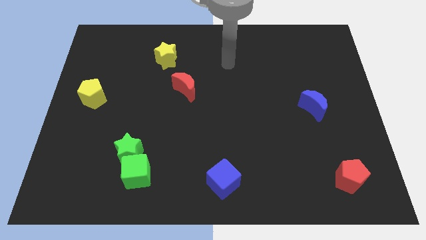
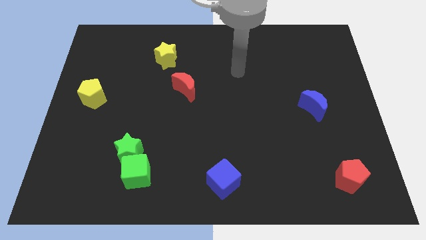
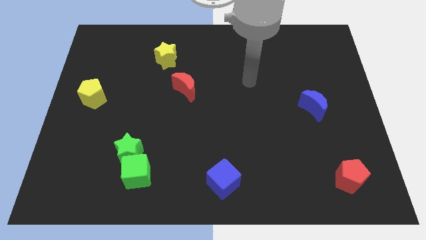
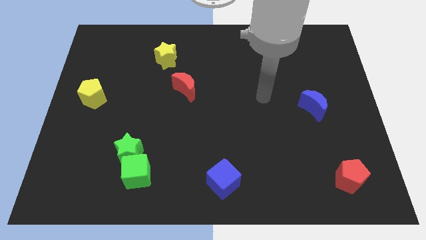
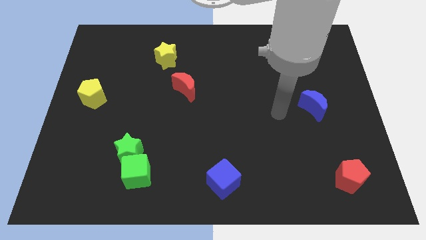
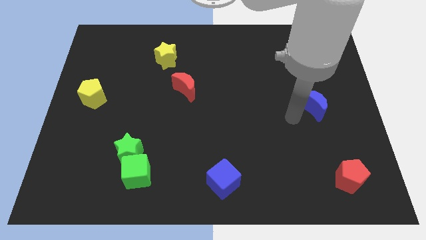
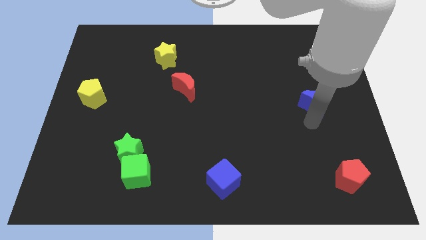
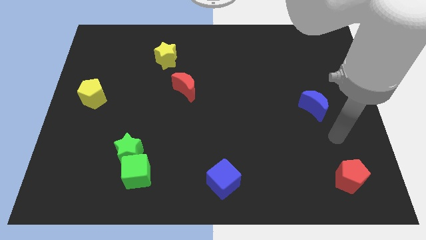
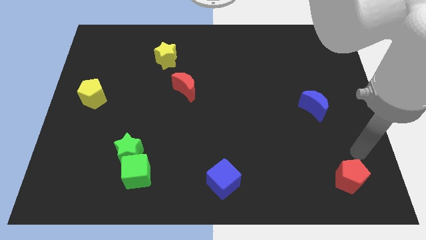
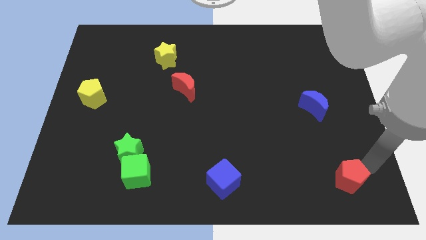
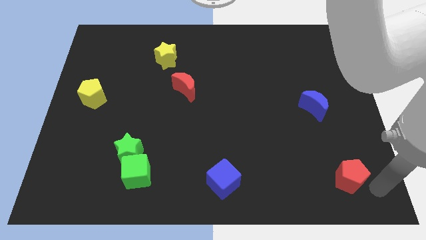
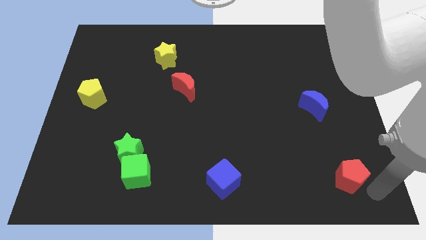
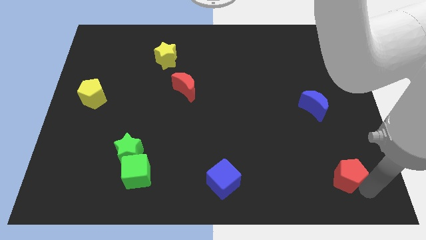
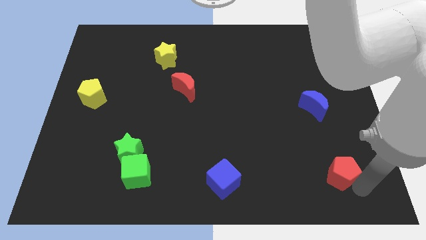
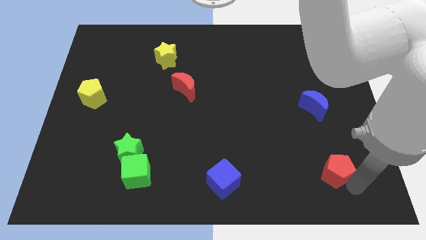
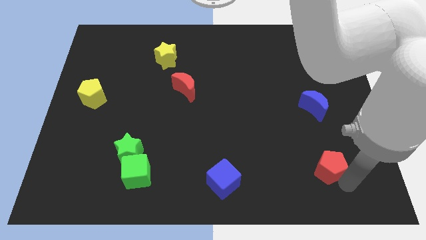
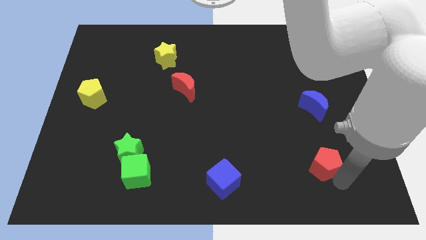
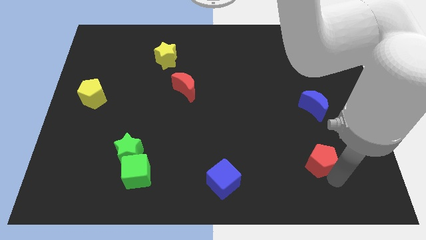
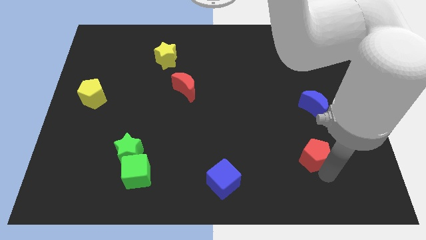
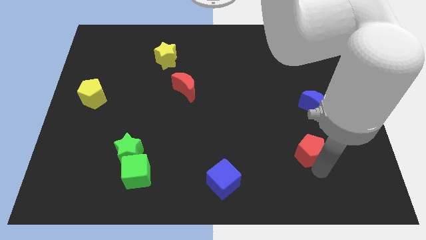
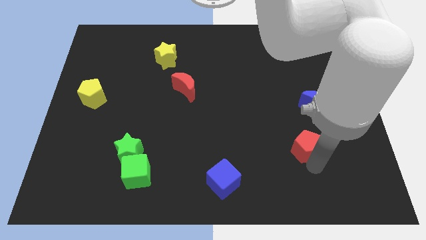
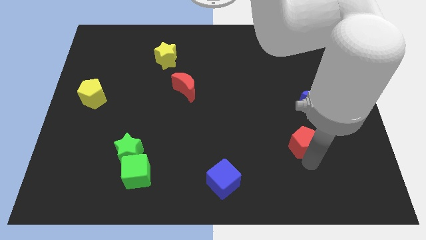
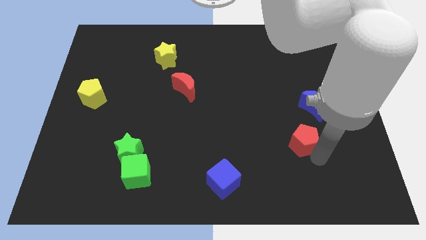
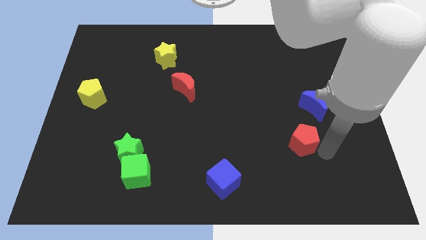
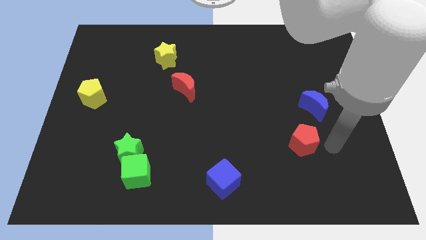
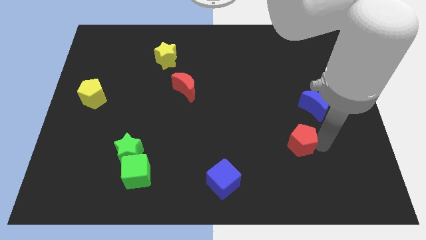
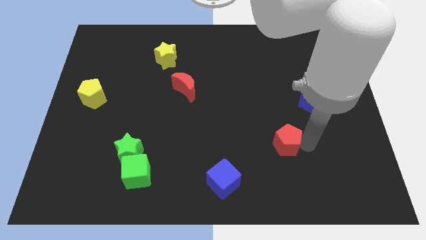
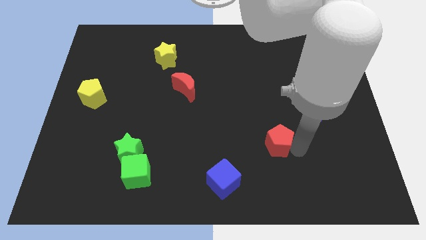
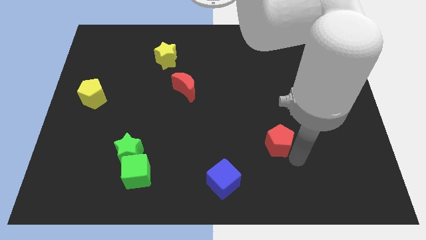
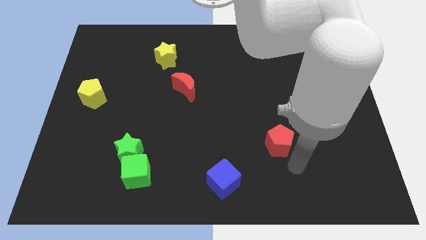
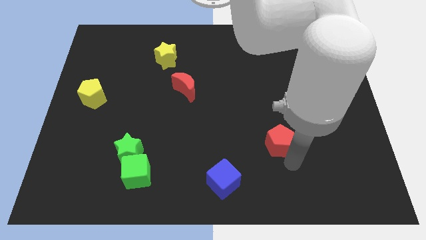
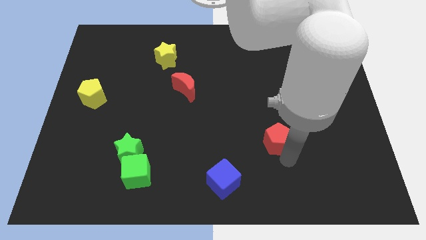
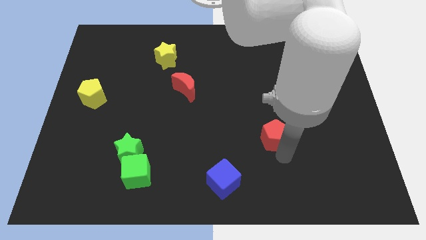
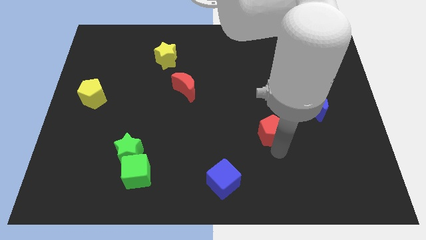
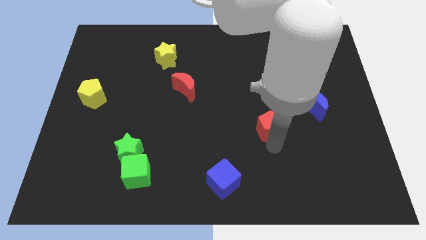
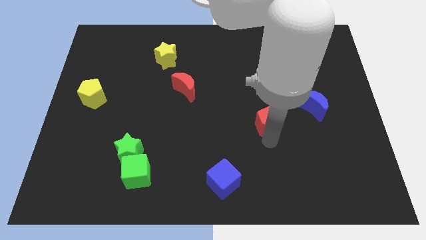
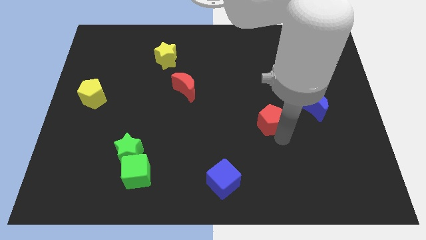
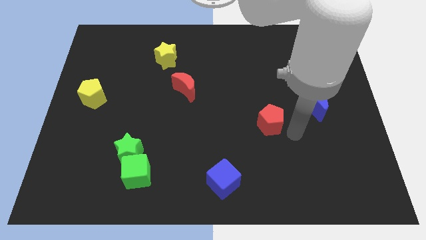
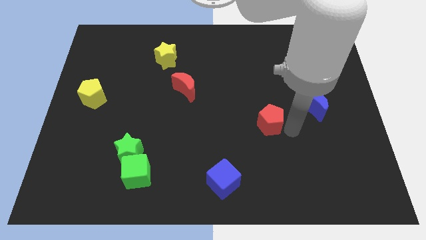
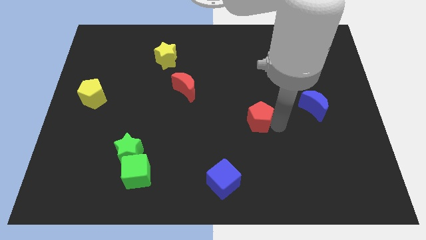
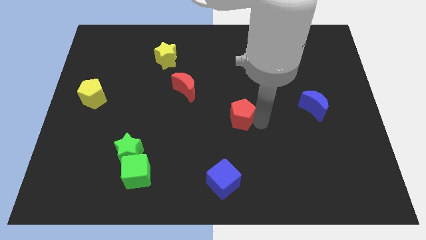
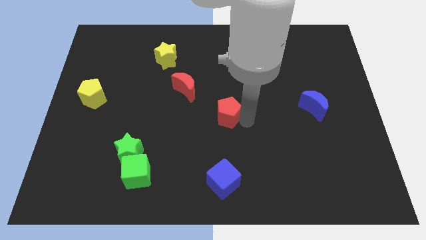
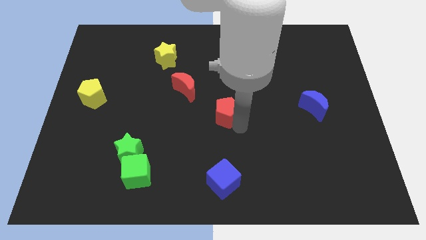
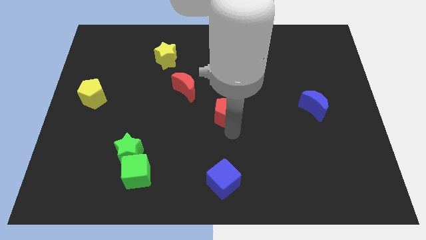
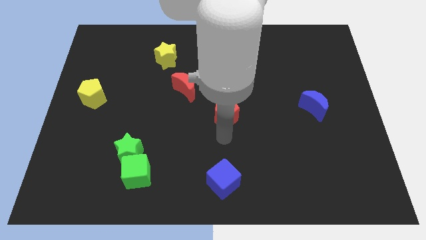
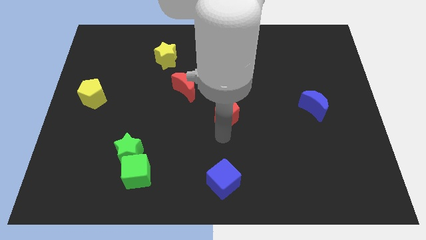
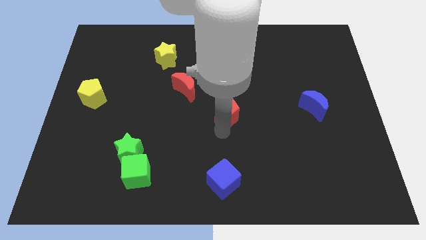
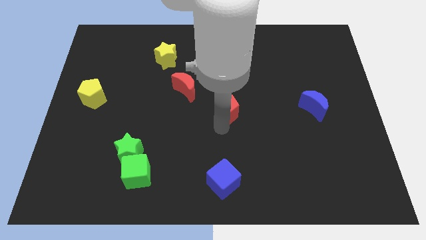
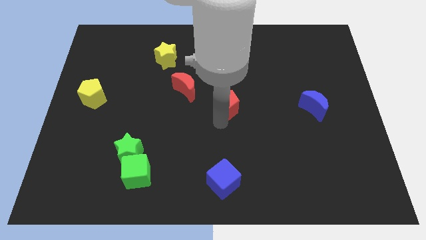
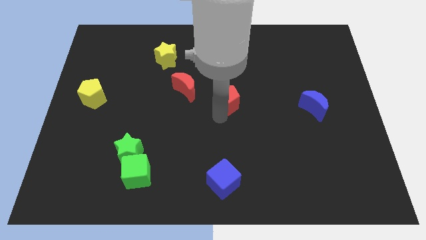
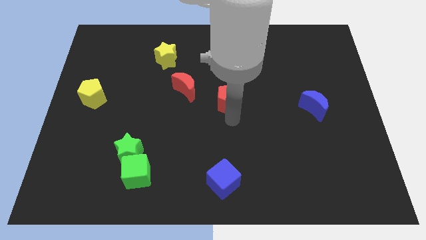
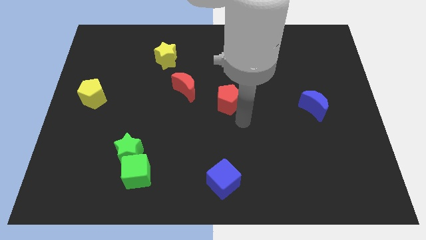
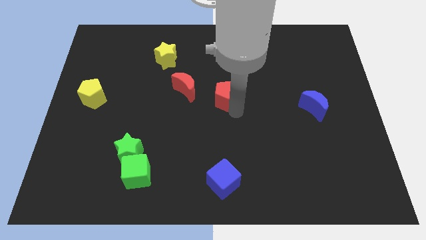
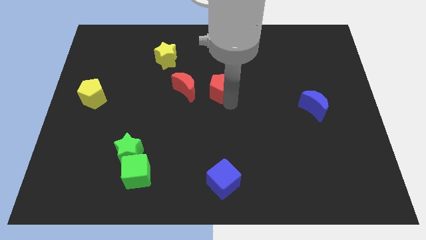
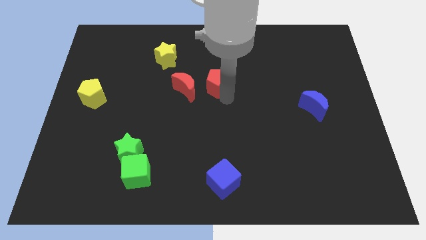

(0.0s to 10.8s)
slide the red pentagon diagonally up and to the right of the red moon
